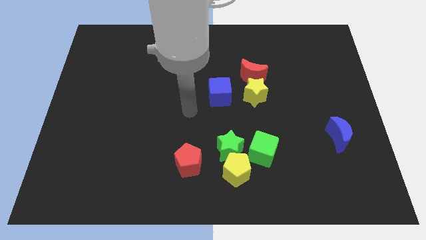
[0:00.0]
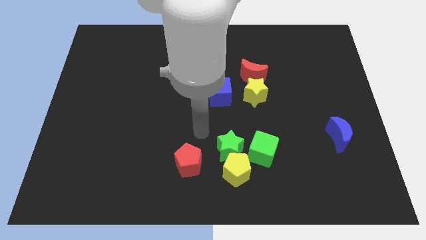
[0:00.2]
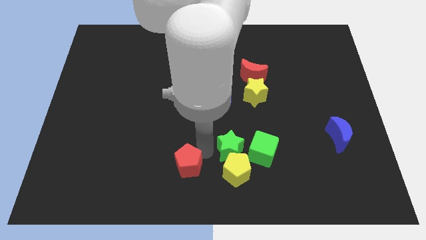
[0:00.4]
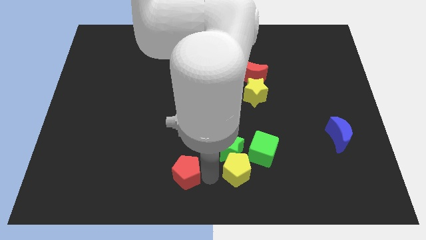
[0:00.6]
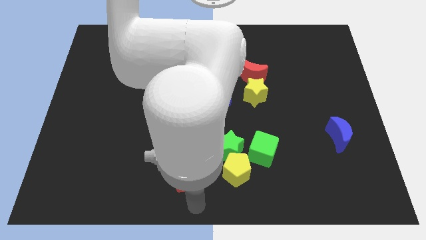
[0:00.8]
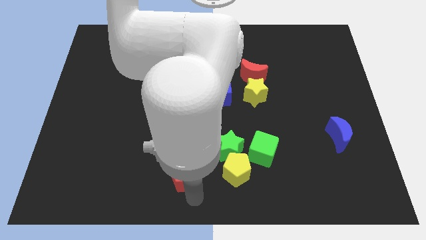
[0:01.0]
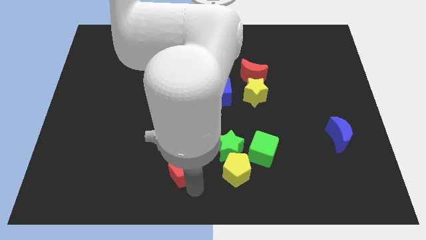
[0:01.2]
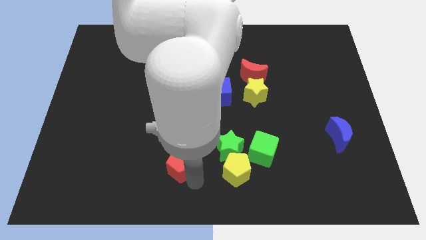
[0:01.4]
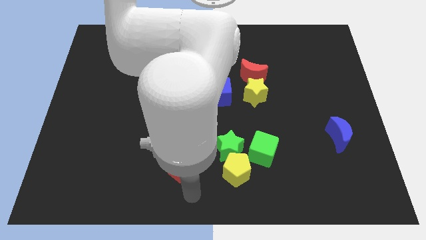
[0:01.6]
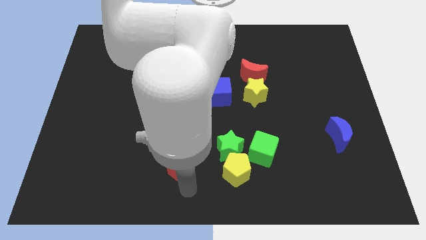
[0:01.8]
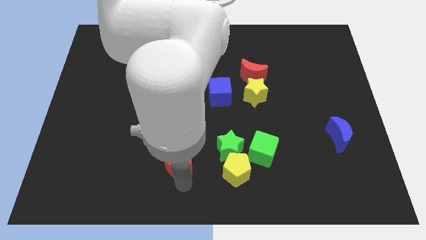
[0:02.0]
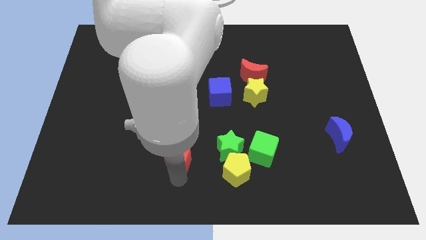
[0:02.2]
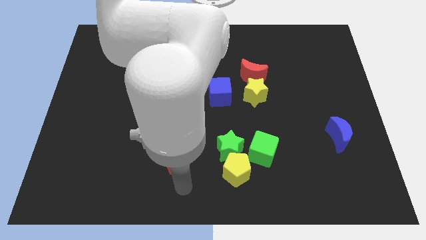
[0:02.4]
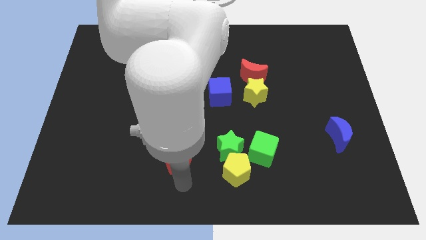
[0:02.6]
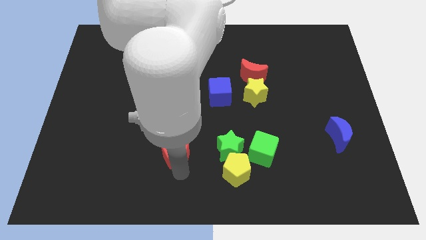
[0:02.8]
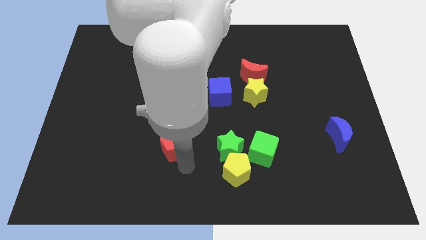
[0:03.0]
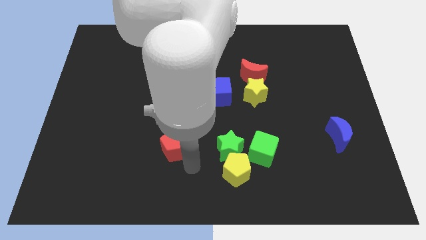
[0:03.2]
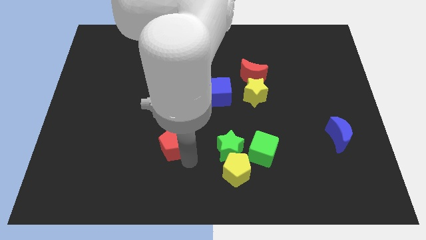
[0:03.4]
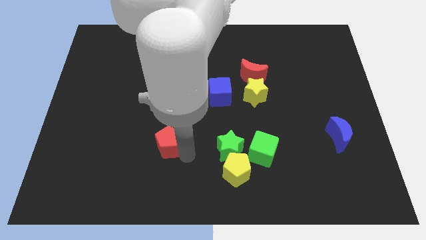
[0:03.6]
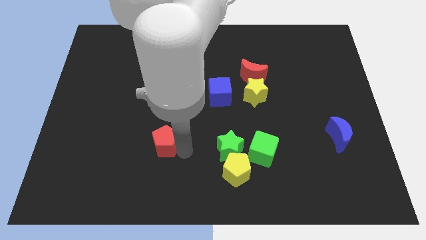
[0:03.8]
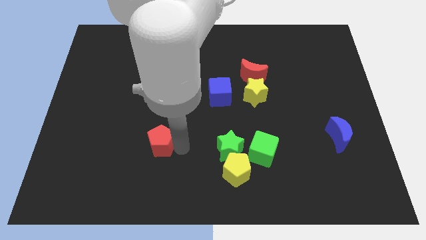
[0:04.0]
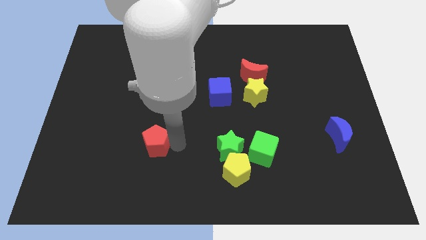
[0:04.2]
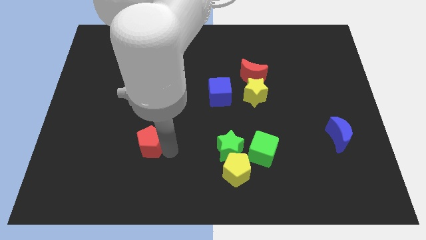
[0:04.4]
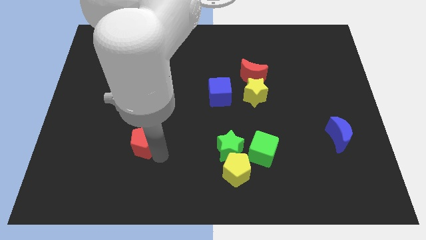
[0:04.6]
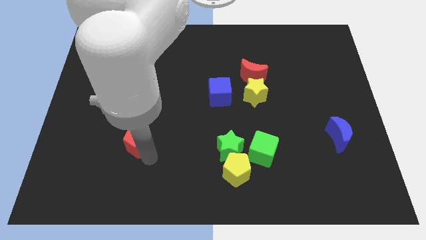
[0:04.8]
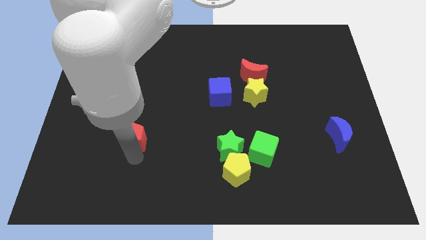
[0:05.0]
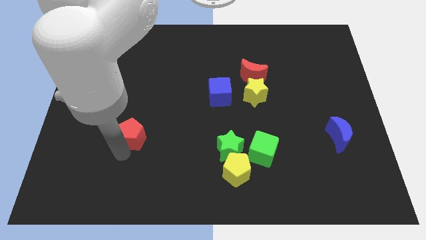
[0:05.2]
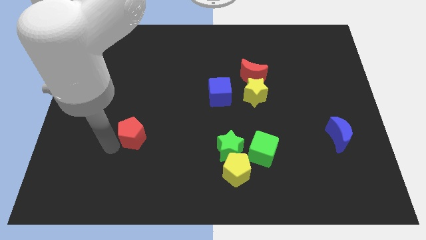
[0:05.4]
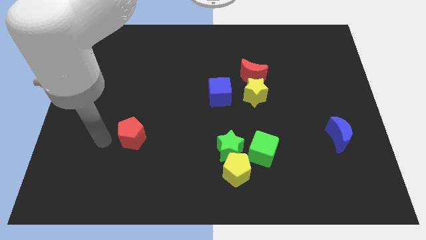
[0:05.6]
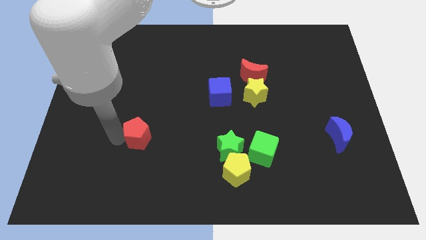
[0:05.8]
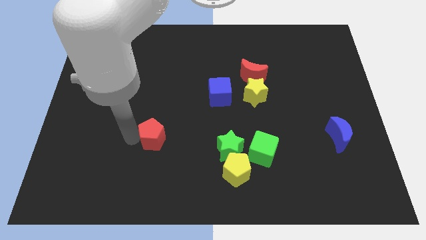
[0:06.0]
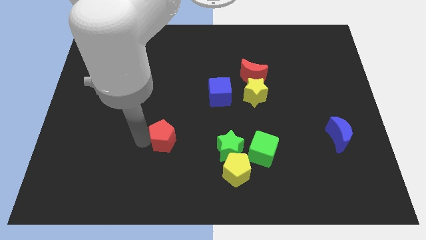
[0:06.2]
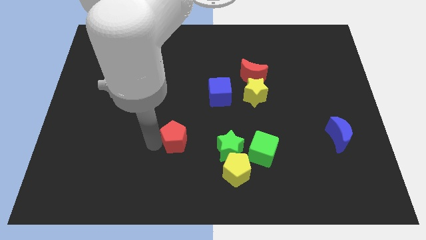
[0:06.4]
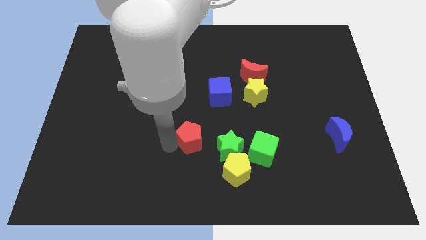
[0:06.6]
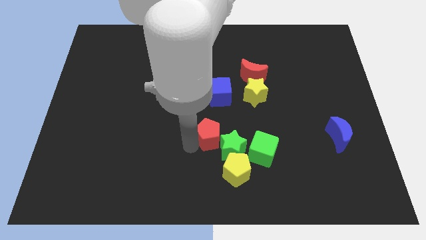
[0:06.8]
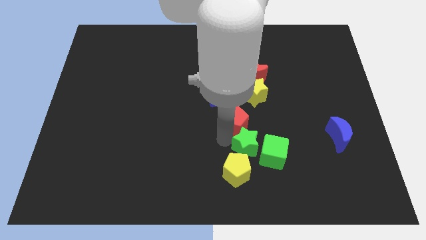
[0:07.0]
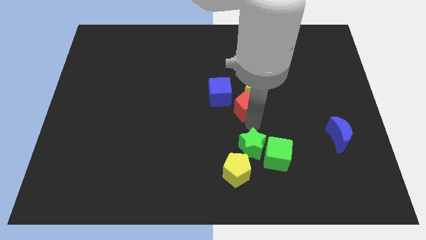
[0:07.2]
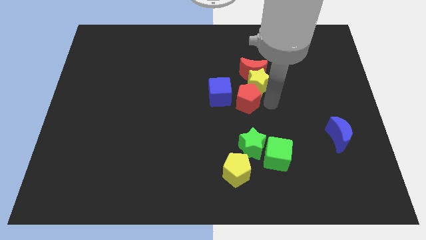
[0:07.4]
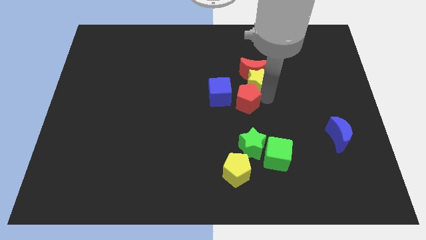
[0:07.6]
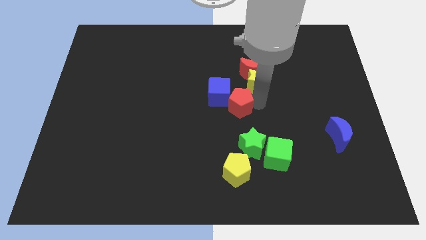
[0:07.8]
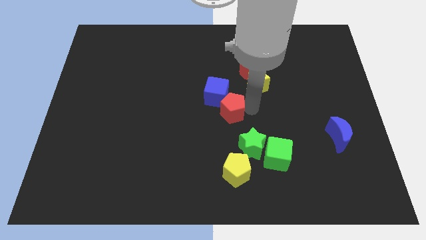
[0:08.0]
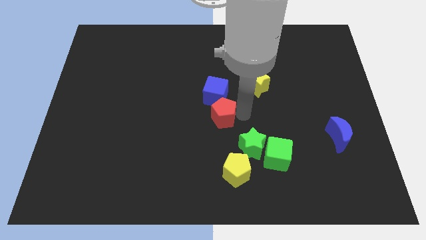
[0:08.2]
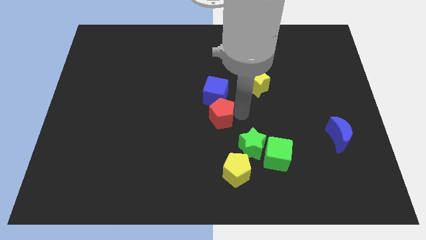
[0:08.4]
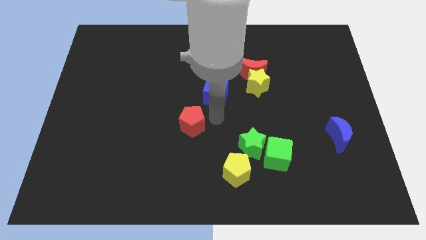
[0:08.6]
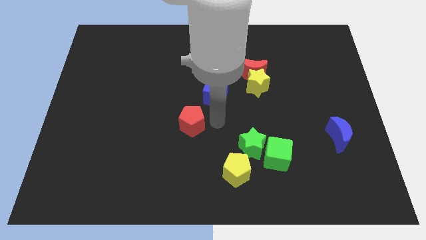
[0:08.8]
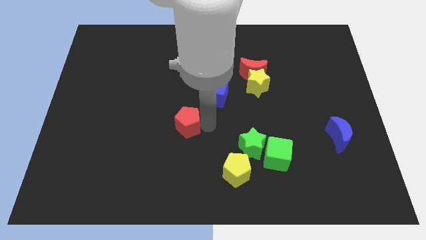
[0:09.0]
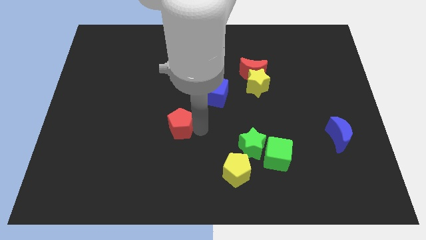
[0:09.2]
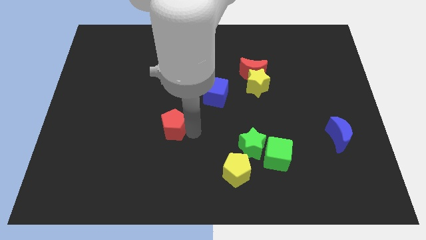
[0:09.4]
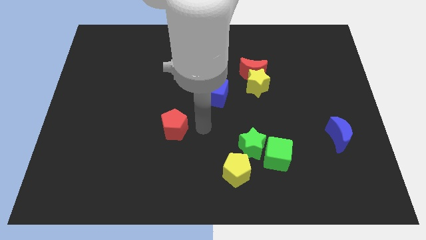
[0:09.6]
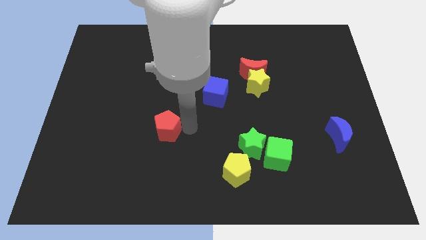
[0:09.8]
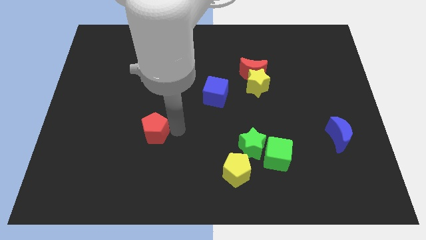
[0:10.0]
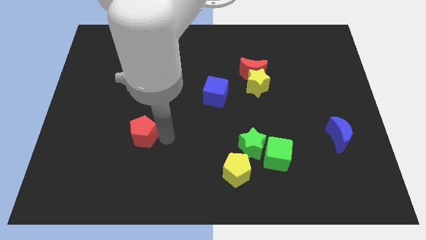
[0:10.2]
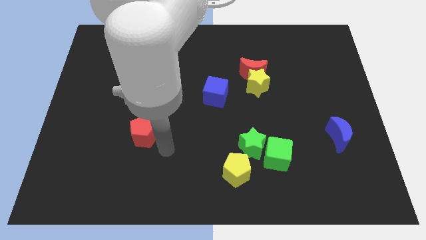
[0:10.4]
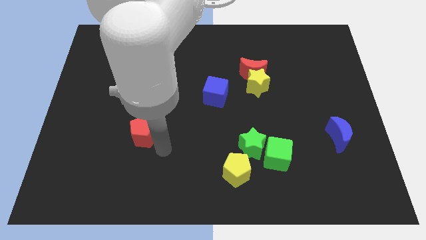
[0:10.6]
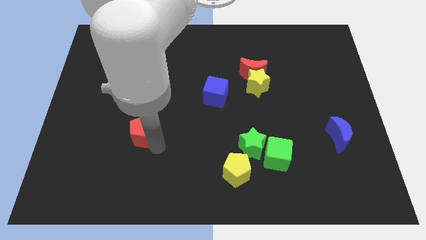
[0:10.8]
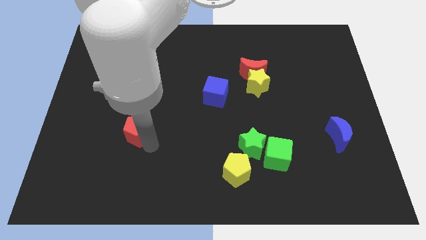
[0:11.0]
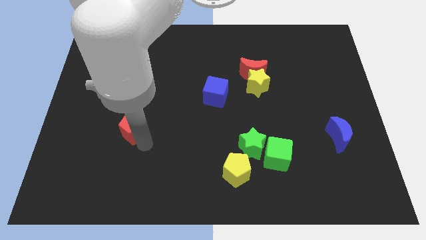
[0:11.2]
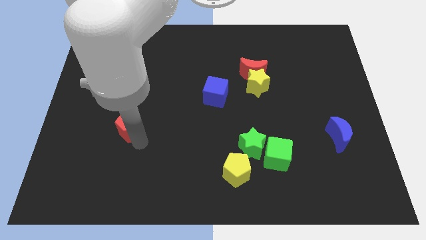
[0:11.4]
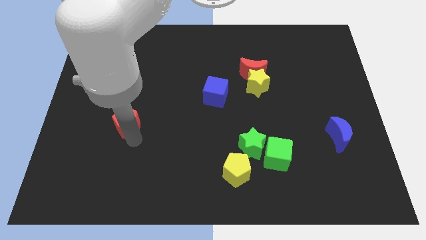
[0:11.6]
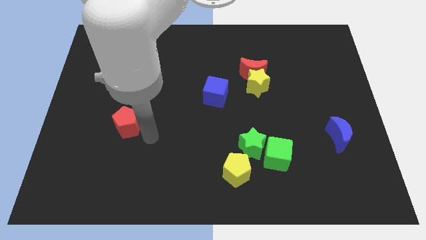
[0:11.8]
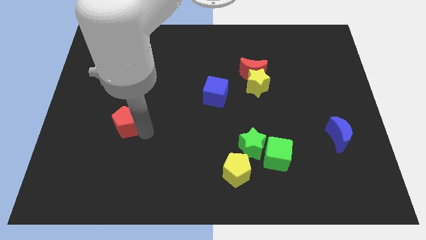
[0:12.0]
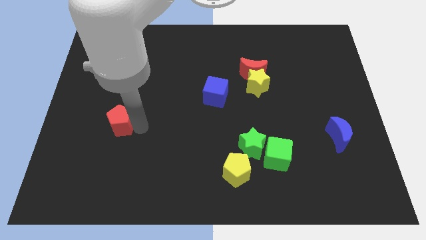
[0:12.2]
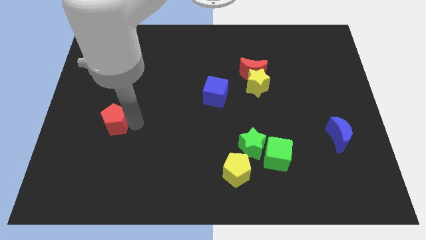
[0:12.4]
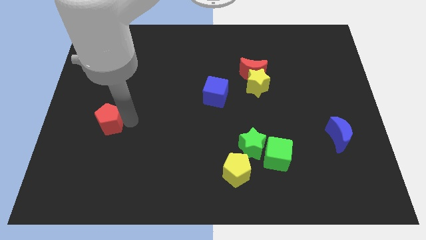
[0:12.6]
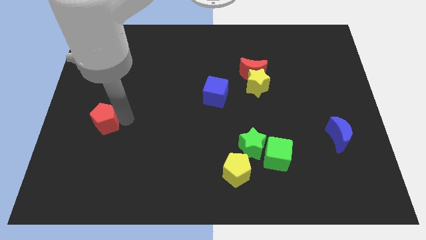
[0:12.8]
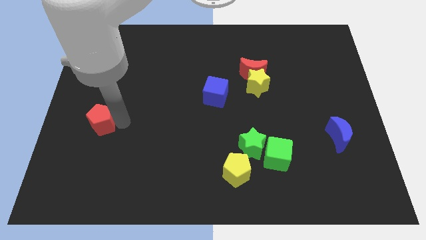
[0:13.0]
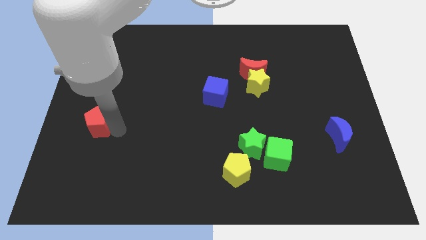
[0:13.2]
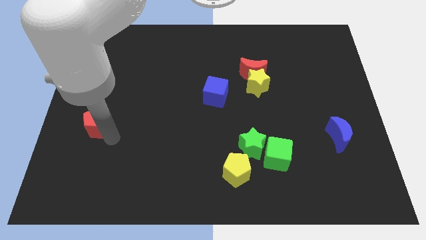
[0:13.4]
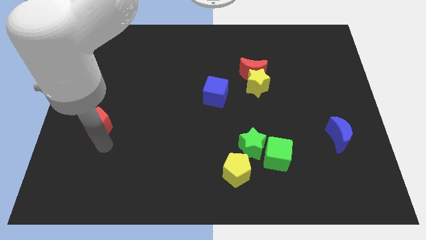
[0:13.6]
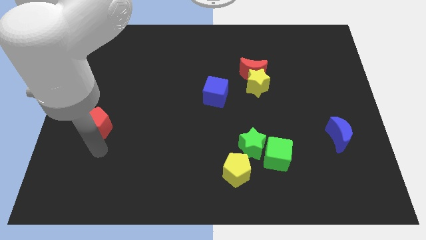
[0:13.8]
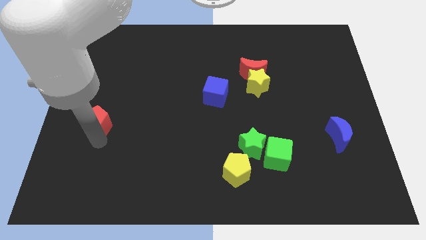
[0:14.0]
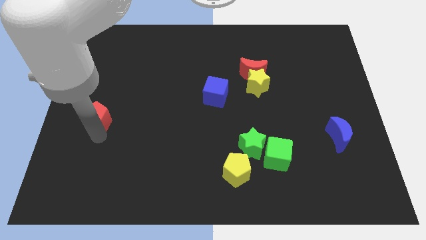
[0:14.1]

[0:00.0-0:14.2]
put the red pentagon to the center left

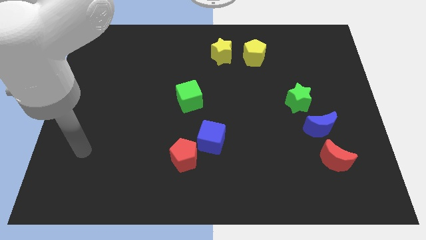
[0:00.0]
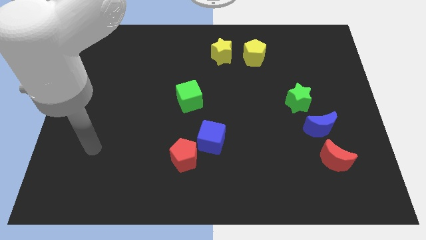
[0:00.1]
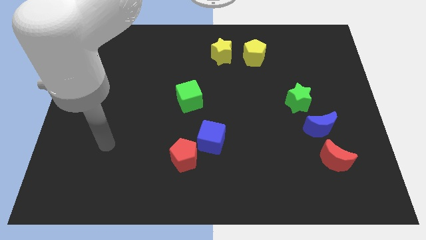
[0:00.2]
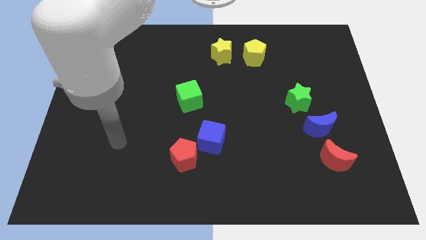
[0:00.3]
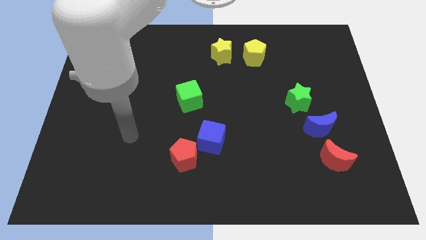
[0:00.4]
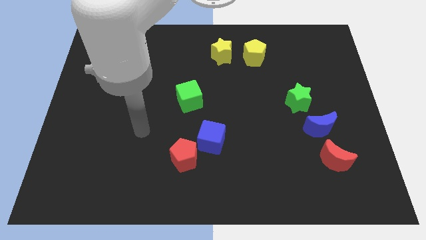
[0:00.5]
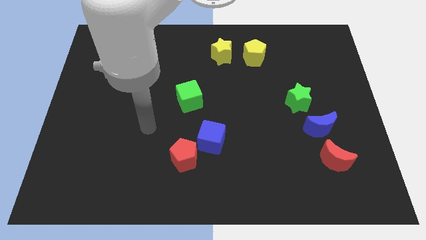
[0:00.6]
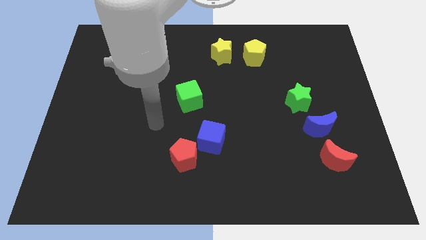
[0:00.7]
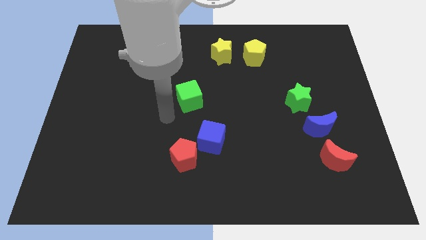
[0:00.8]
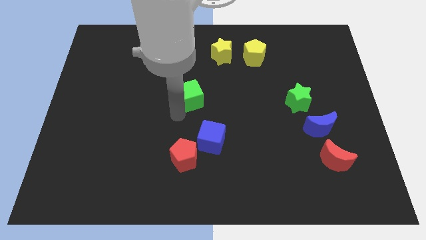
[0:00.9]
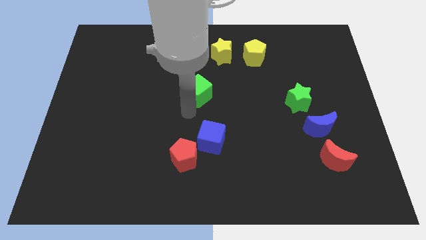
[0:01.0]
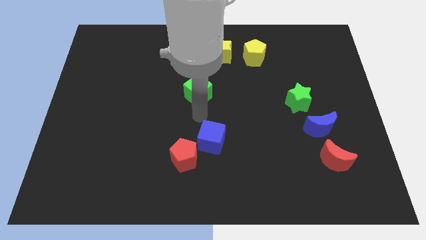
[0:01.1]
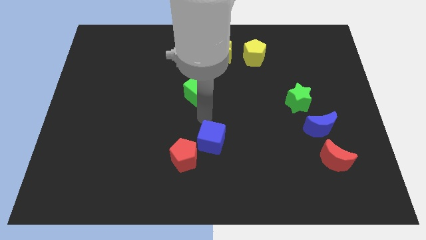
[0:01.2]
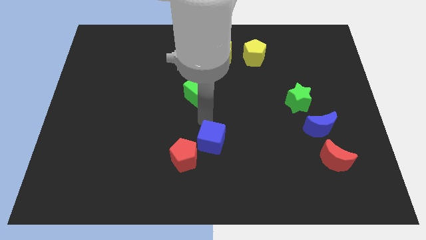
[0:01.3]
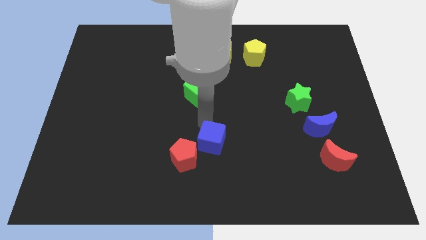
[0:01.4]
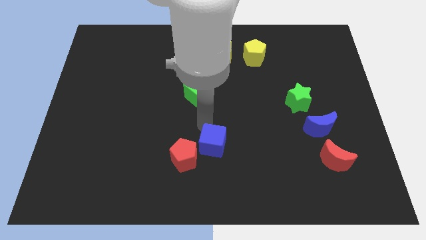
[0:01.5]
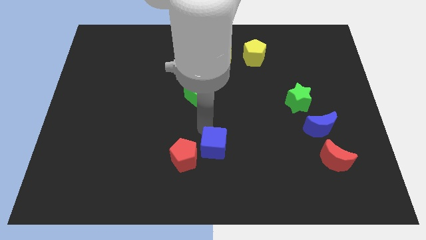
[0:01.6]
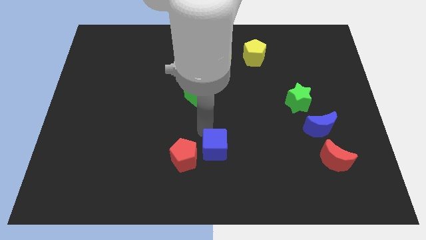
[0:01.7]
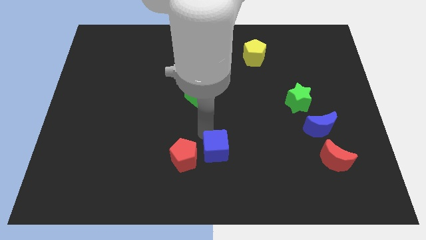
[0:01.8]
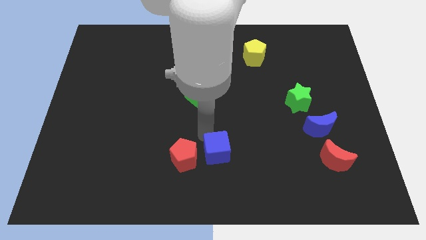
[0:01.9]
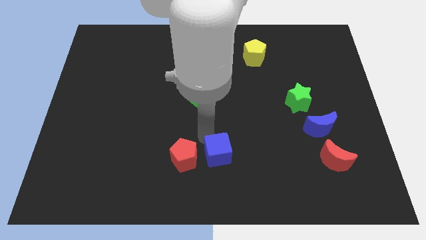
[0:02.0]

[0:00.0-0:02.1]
put the blue cube to the bottom side
